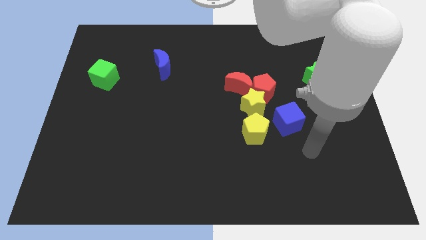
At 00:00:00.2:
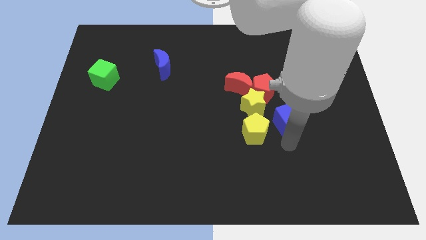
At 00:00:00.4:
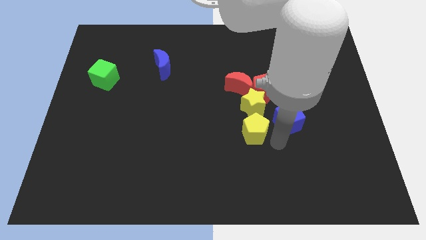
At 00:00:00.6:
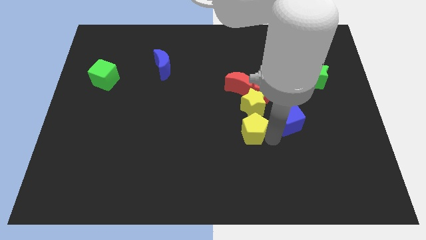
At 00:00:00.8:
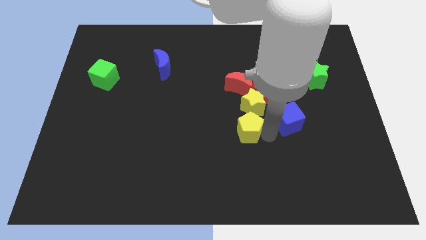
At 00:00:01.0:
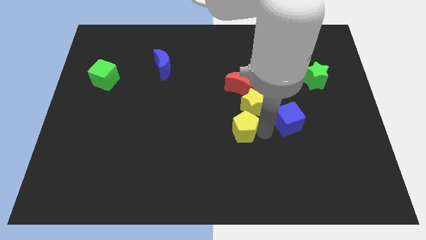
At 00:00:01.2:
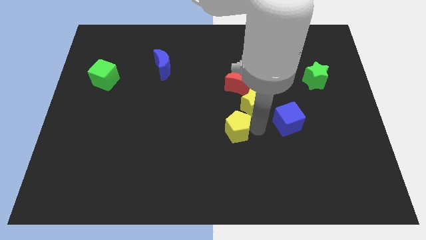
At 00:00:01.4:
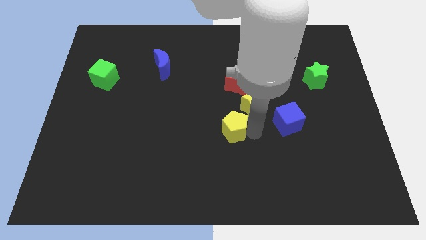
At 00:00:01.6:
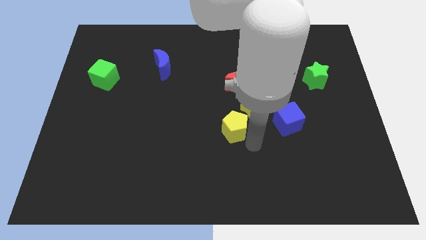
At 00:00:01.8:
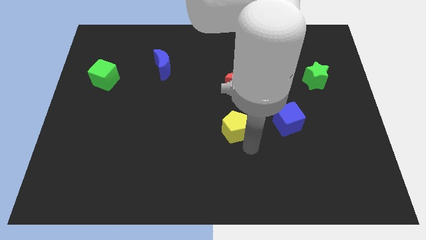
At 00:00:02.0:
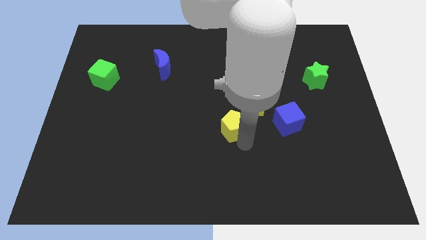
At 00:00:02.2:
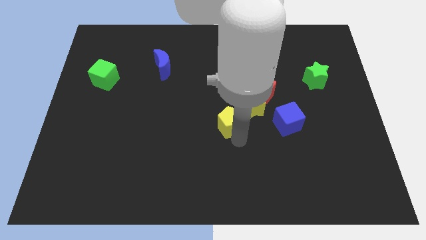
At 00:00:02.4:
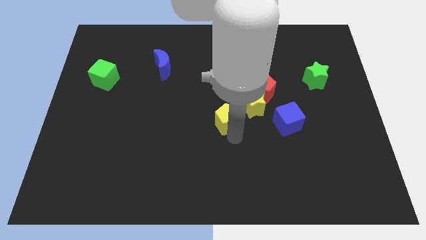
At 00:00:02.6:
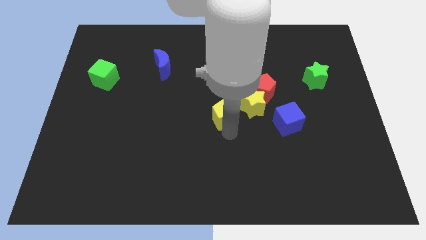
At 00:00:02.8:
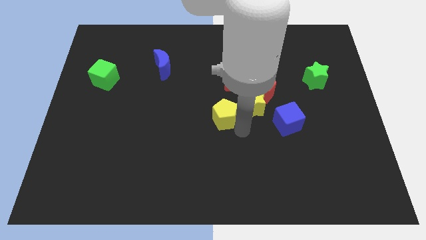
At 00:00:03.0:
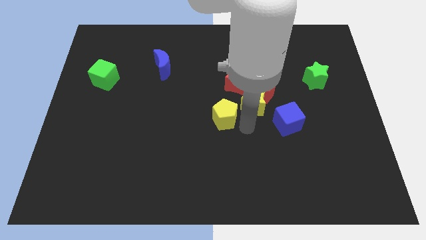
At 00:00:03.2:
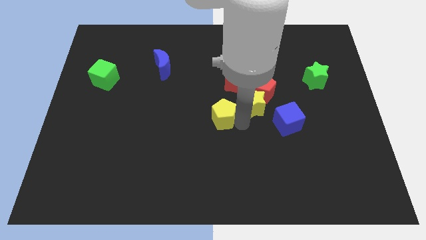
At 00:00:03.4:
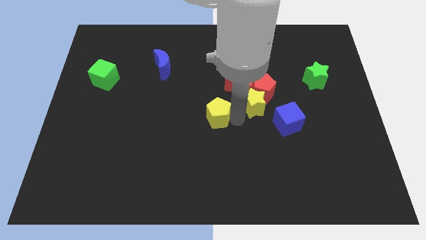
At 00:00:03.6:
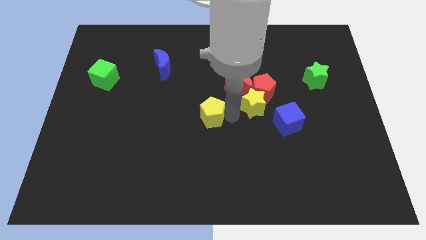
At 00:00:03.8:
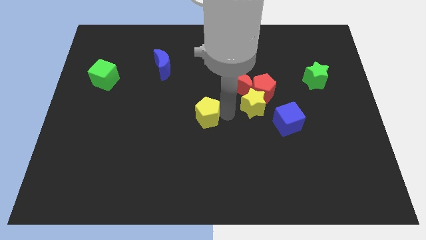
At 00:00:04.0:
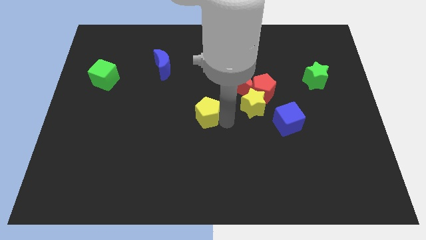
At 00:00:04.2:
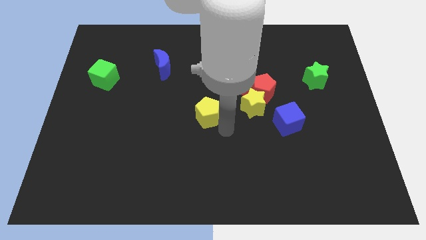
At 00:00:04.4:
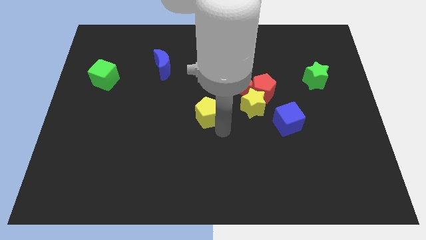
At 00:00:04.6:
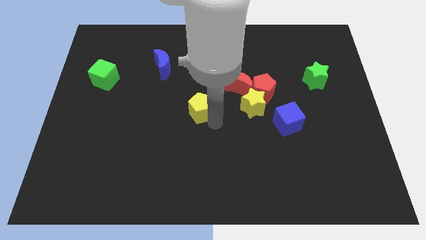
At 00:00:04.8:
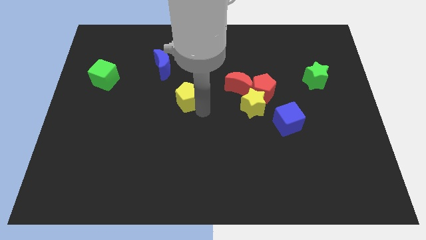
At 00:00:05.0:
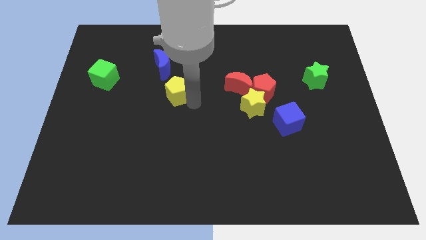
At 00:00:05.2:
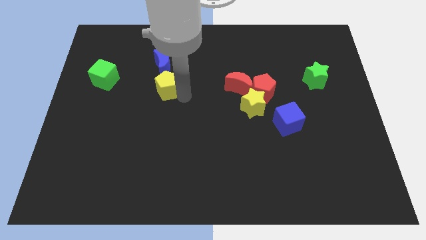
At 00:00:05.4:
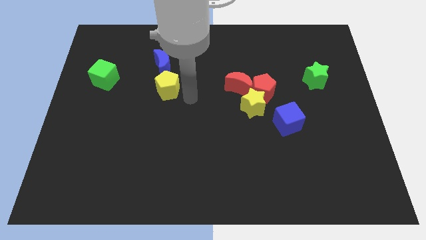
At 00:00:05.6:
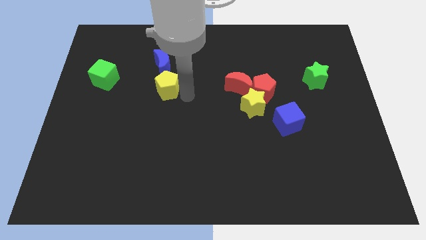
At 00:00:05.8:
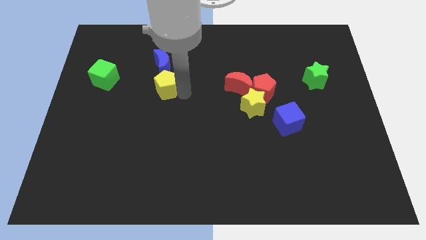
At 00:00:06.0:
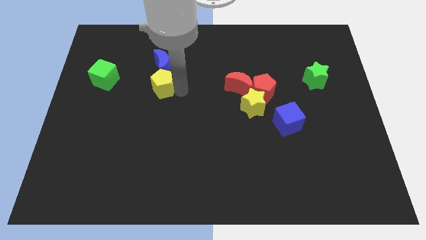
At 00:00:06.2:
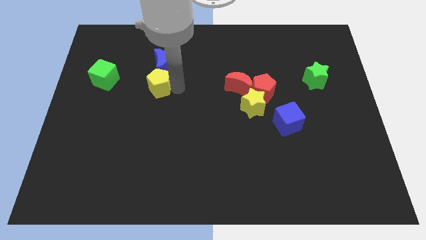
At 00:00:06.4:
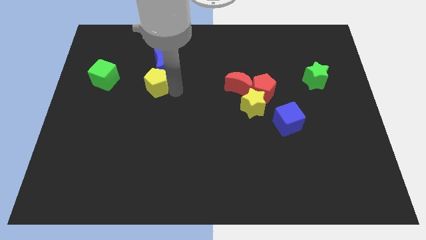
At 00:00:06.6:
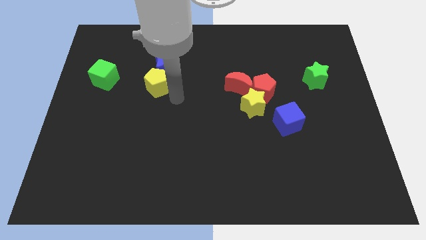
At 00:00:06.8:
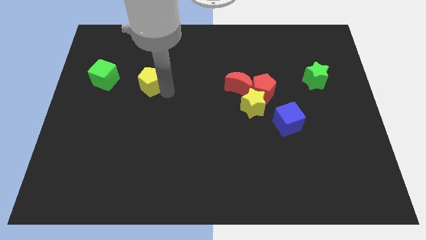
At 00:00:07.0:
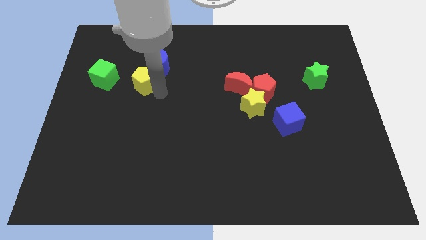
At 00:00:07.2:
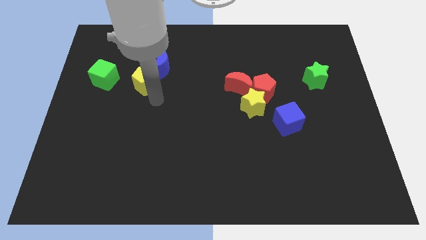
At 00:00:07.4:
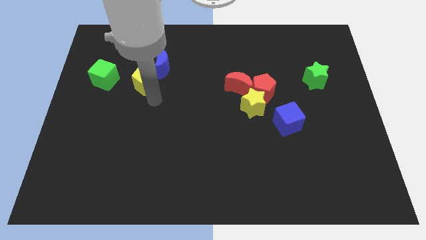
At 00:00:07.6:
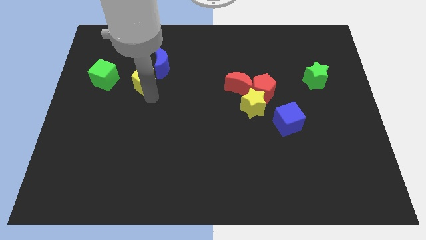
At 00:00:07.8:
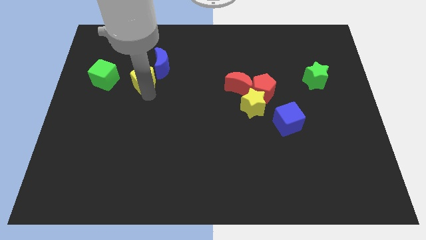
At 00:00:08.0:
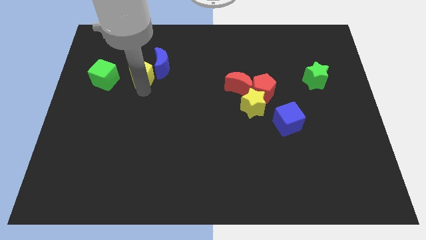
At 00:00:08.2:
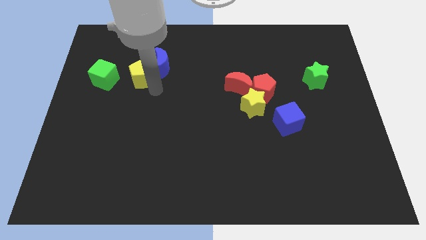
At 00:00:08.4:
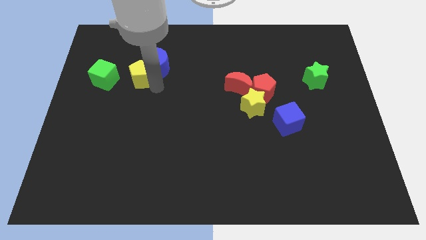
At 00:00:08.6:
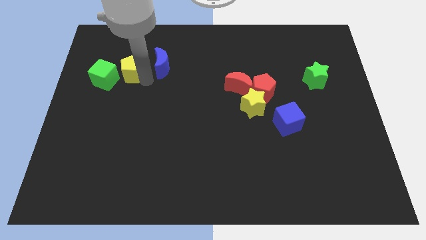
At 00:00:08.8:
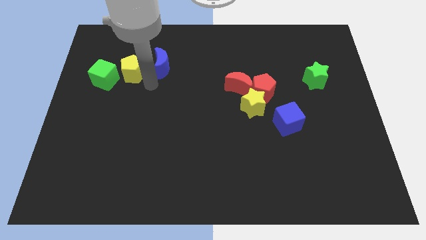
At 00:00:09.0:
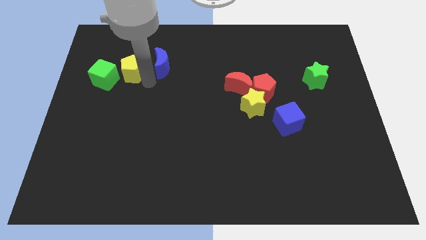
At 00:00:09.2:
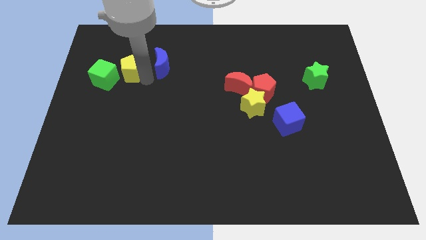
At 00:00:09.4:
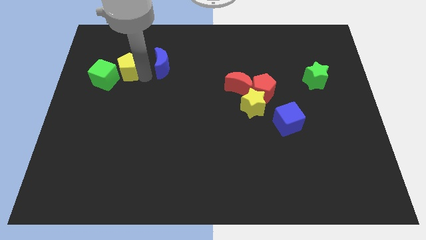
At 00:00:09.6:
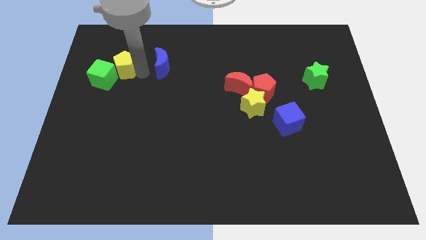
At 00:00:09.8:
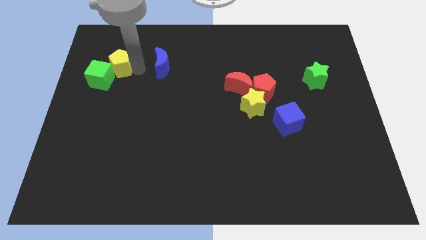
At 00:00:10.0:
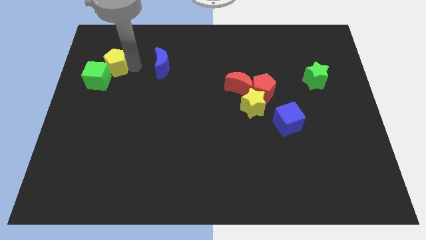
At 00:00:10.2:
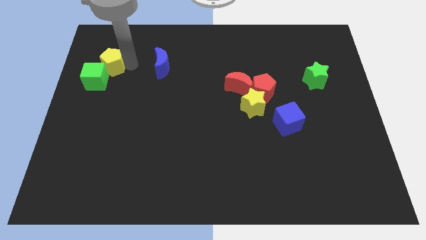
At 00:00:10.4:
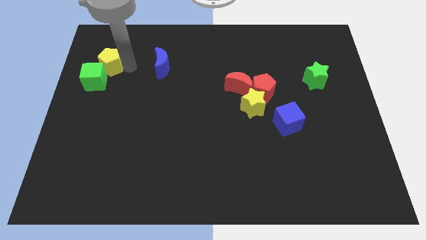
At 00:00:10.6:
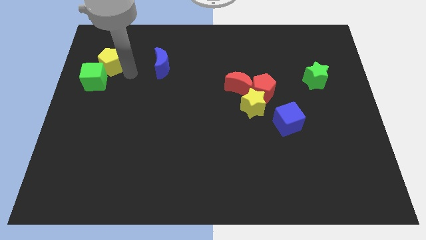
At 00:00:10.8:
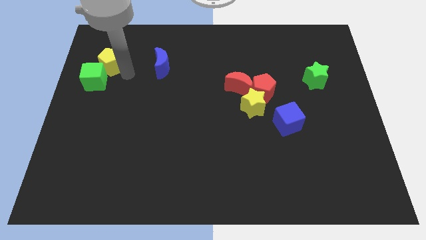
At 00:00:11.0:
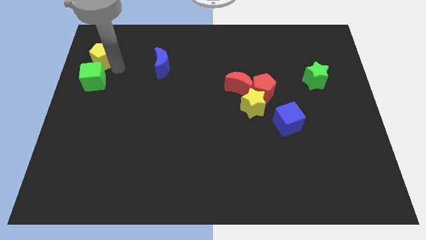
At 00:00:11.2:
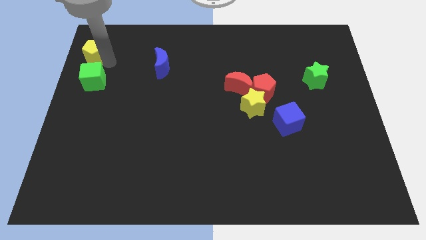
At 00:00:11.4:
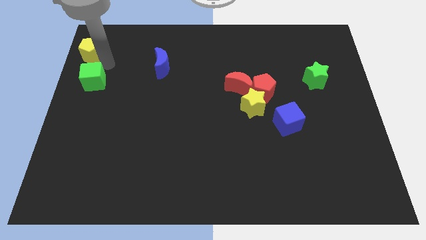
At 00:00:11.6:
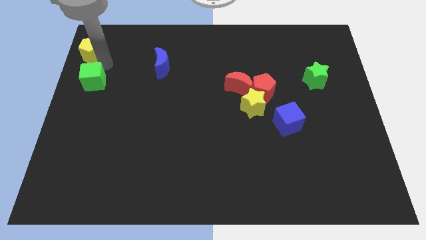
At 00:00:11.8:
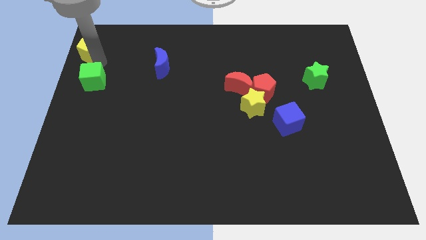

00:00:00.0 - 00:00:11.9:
move the yellow pentagon to the top left of the board

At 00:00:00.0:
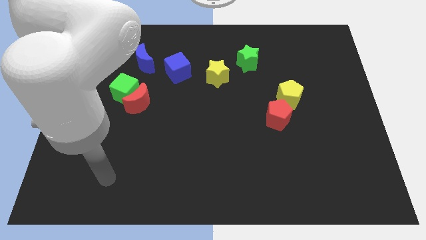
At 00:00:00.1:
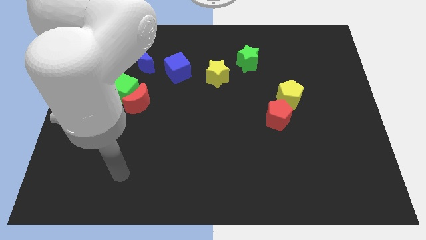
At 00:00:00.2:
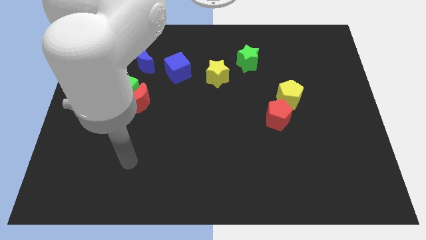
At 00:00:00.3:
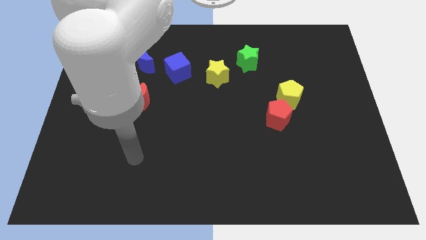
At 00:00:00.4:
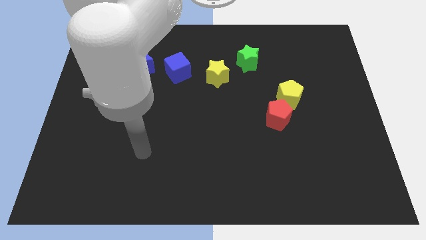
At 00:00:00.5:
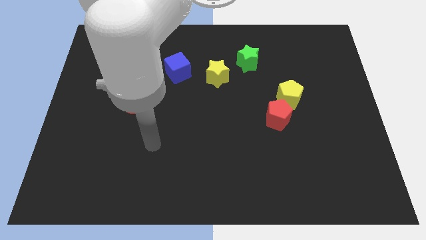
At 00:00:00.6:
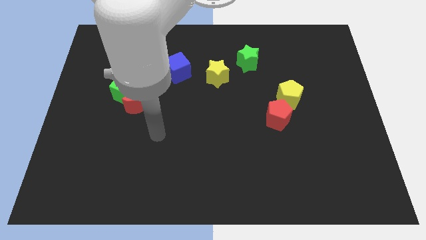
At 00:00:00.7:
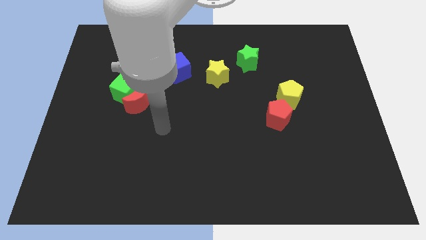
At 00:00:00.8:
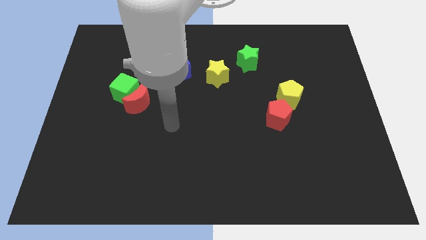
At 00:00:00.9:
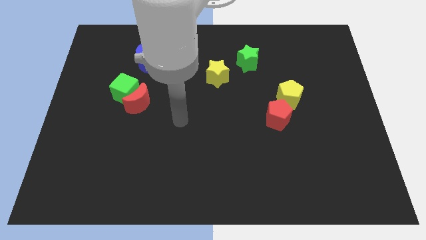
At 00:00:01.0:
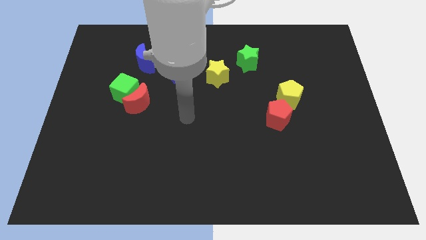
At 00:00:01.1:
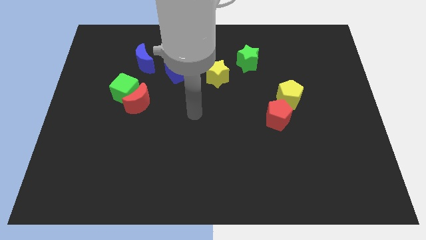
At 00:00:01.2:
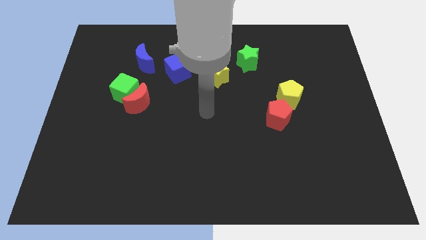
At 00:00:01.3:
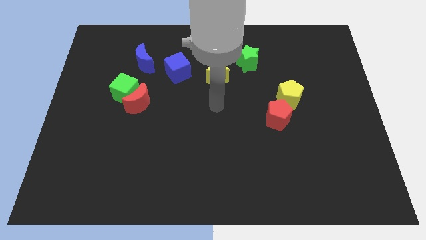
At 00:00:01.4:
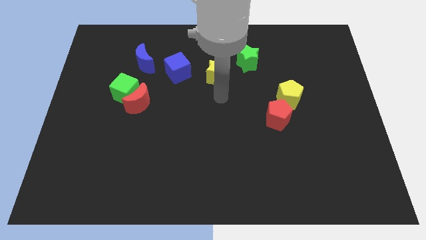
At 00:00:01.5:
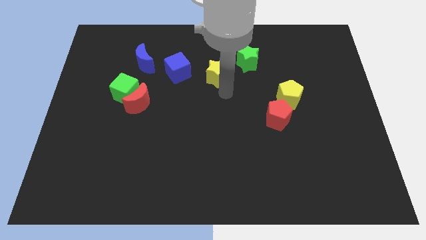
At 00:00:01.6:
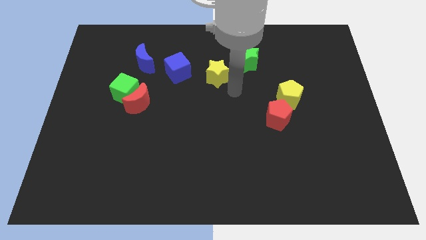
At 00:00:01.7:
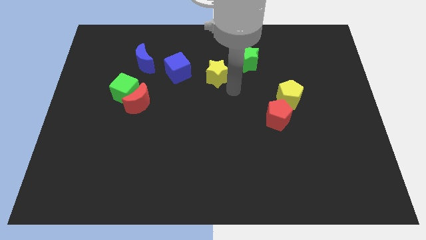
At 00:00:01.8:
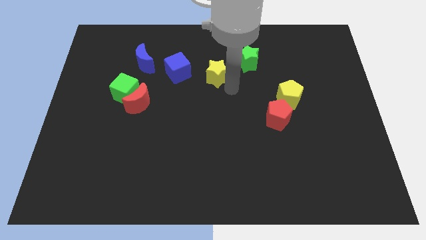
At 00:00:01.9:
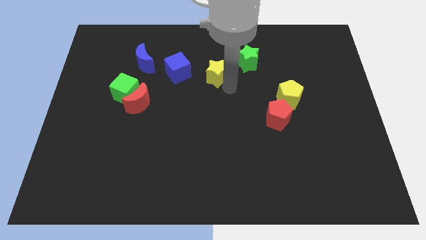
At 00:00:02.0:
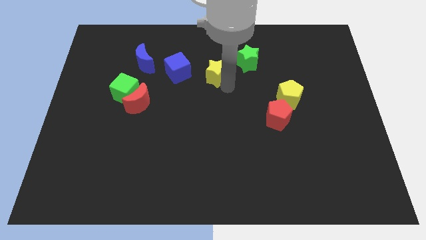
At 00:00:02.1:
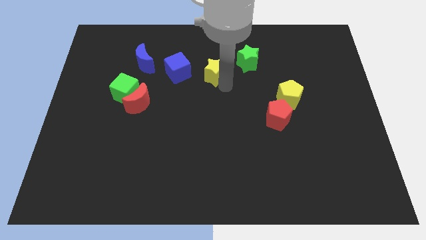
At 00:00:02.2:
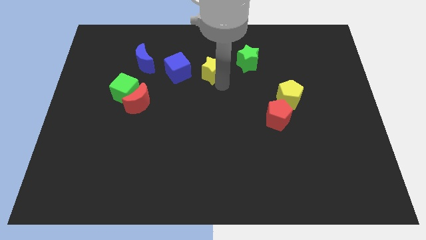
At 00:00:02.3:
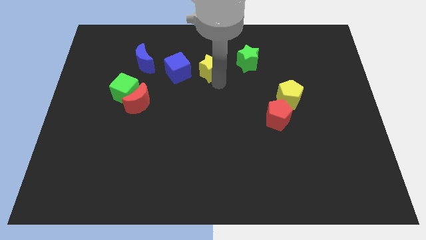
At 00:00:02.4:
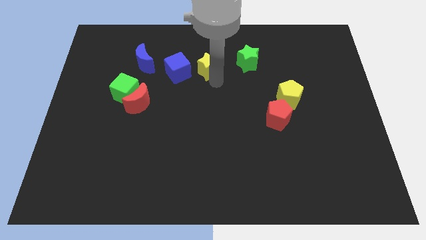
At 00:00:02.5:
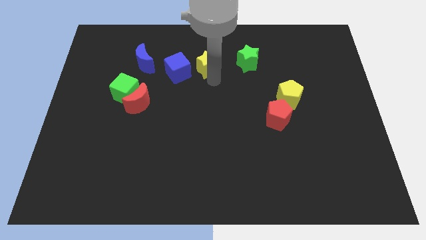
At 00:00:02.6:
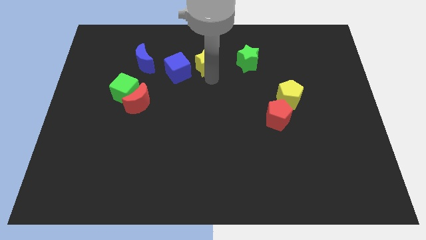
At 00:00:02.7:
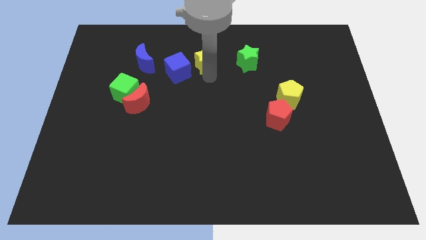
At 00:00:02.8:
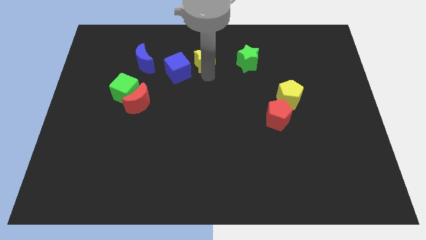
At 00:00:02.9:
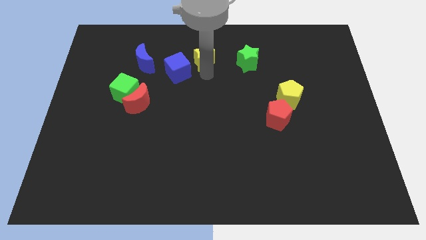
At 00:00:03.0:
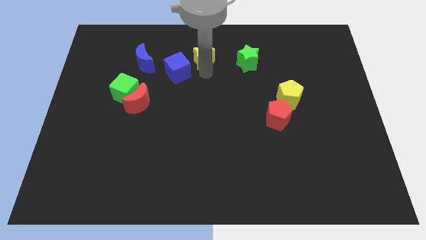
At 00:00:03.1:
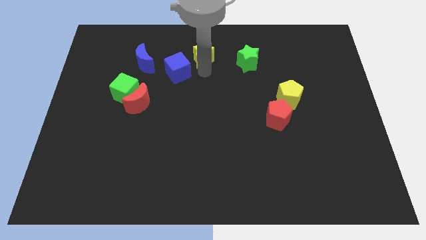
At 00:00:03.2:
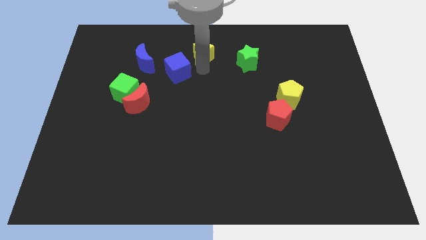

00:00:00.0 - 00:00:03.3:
slide the yellow star to the top
